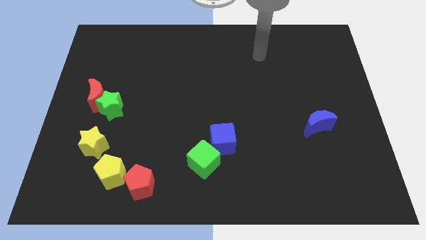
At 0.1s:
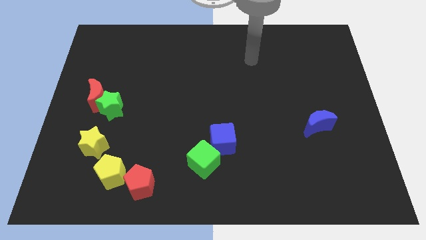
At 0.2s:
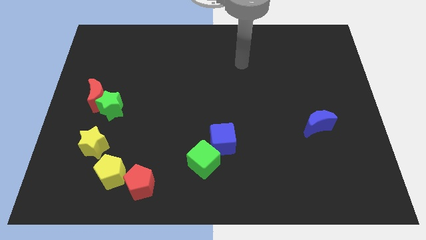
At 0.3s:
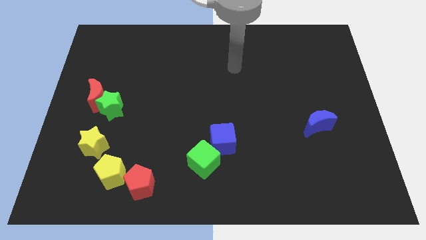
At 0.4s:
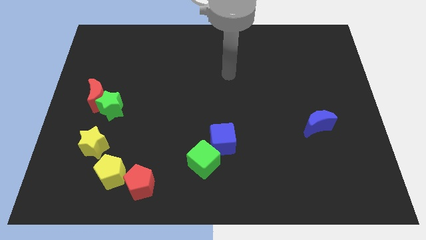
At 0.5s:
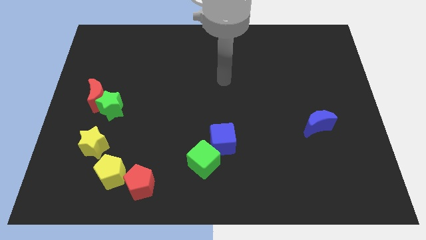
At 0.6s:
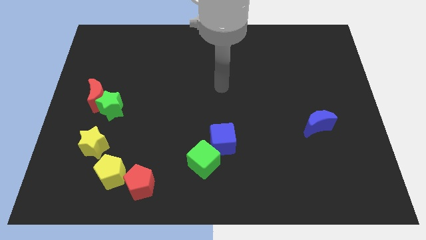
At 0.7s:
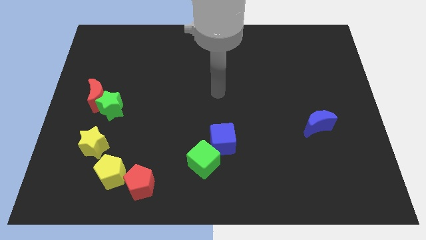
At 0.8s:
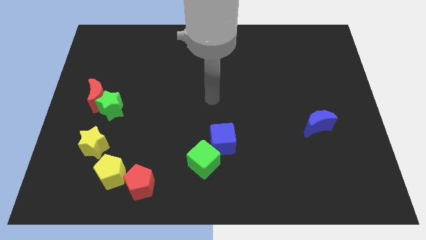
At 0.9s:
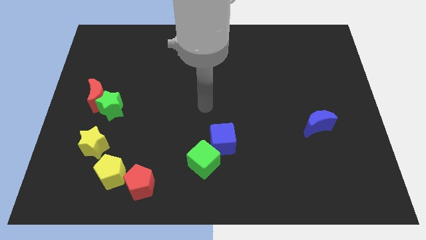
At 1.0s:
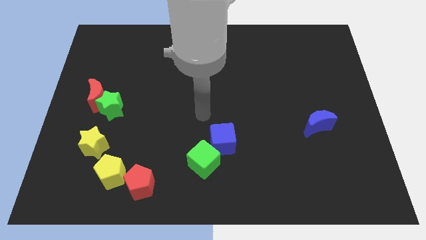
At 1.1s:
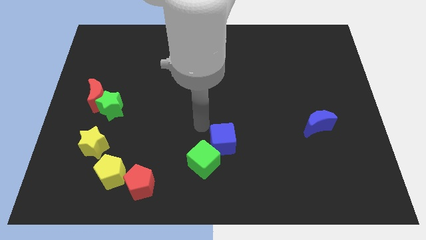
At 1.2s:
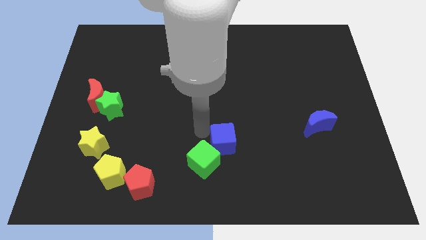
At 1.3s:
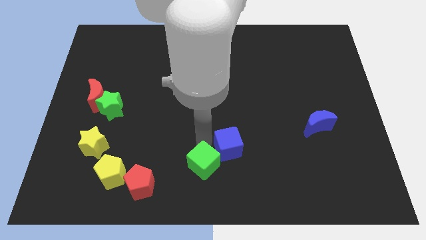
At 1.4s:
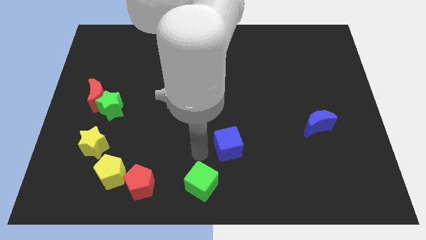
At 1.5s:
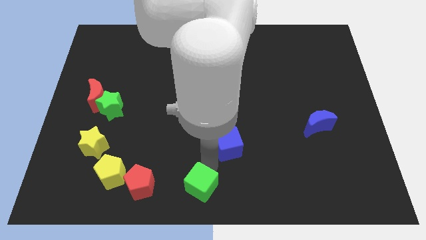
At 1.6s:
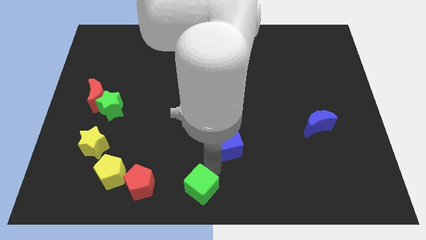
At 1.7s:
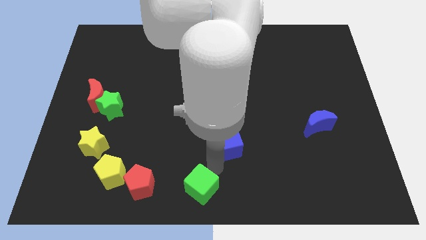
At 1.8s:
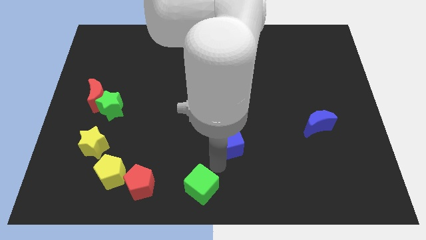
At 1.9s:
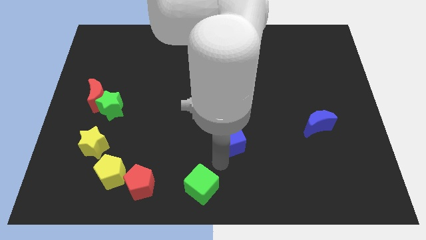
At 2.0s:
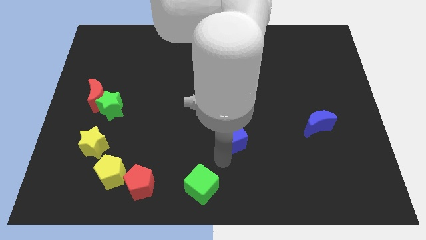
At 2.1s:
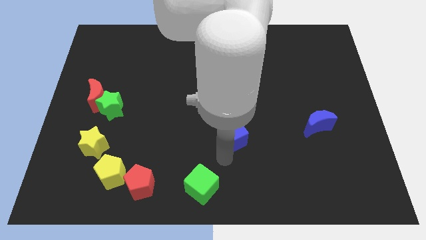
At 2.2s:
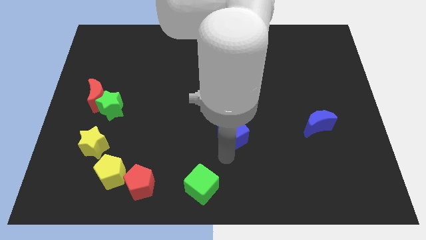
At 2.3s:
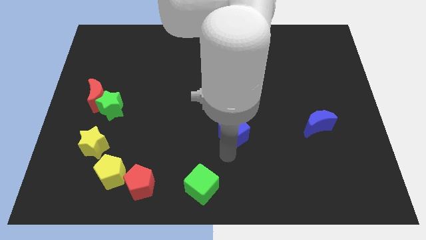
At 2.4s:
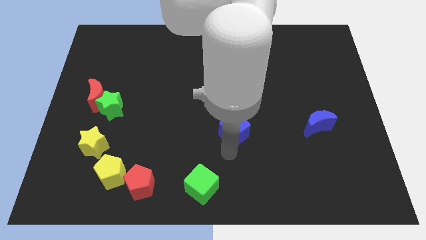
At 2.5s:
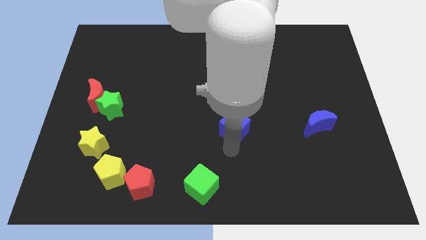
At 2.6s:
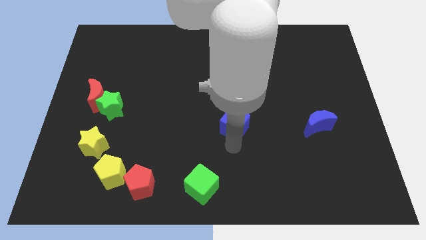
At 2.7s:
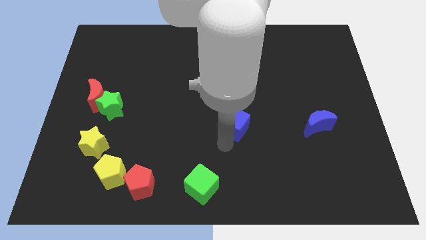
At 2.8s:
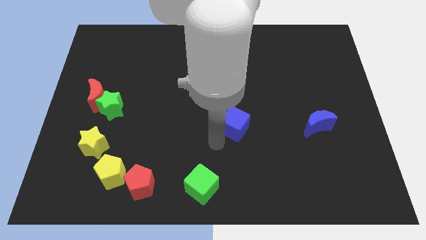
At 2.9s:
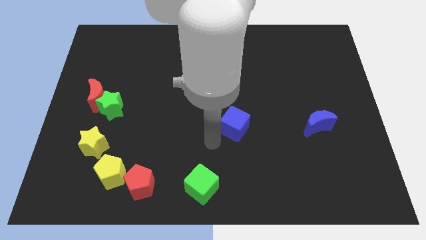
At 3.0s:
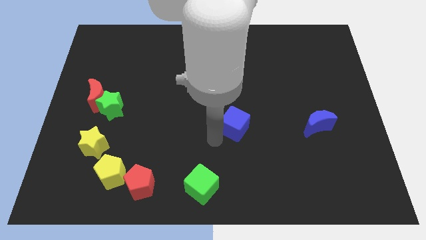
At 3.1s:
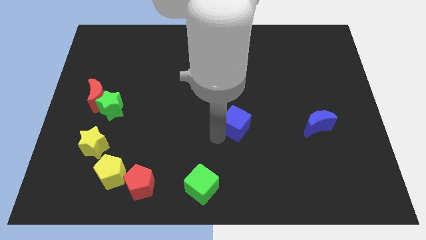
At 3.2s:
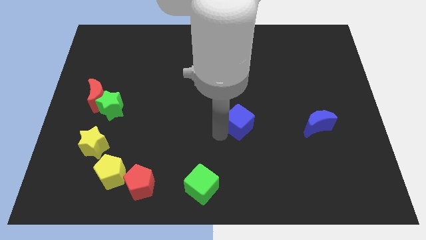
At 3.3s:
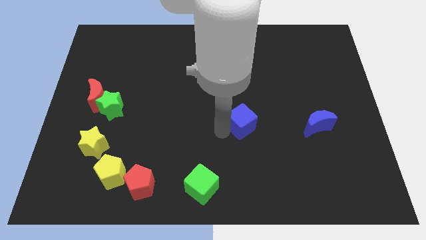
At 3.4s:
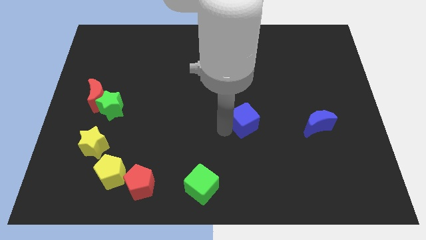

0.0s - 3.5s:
slightly move the blue cube upwards and right diagonally

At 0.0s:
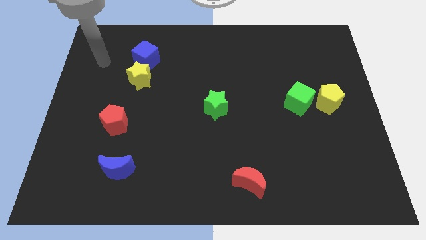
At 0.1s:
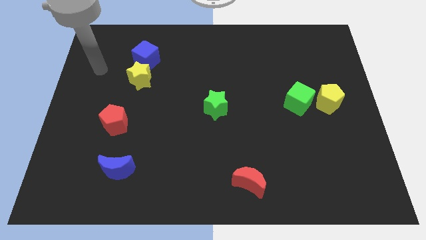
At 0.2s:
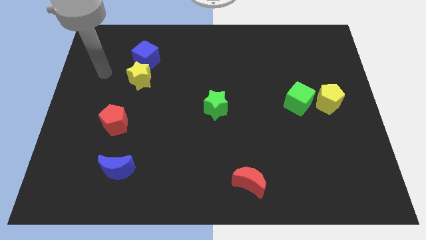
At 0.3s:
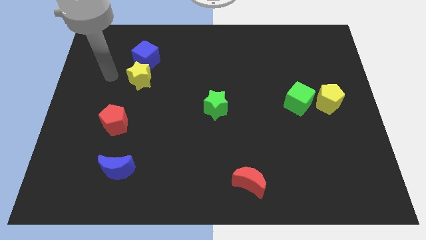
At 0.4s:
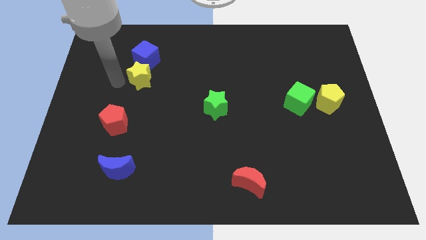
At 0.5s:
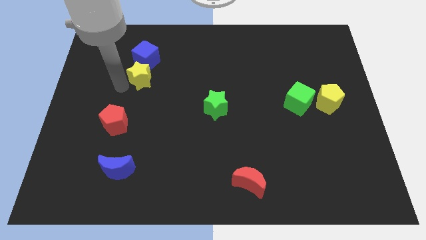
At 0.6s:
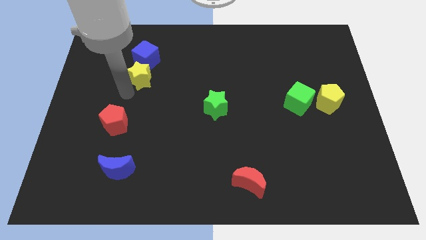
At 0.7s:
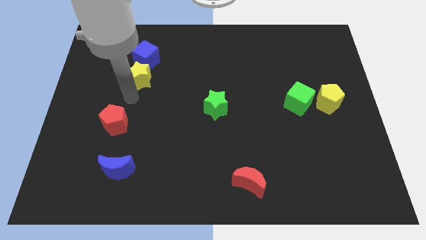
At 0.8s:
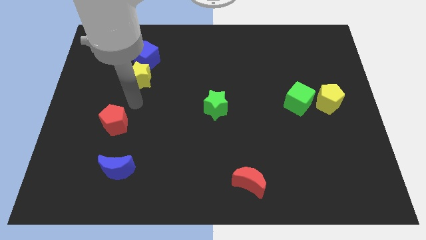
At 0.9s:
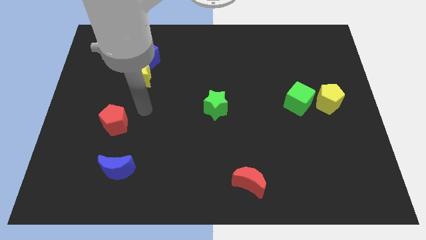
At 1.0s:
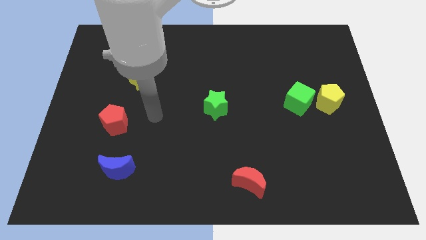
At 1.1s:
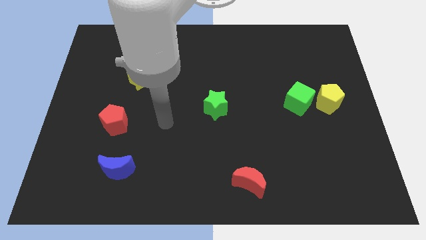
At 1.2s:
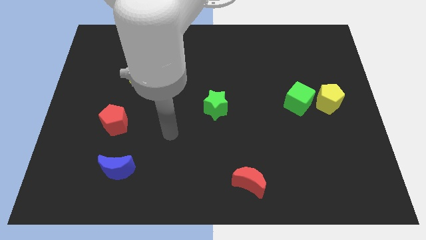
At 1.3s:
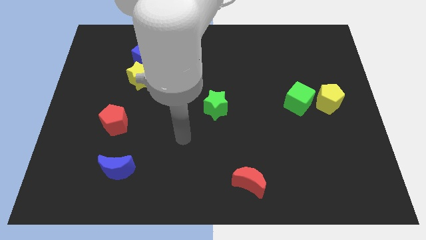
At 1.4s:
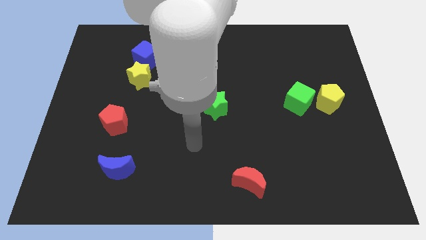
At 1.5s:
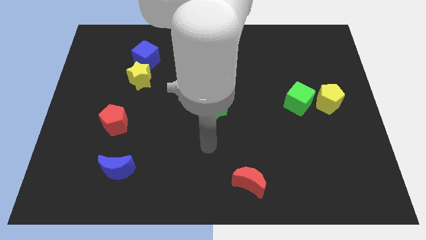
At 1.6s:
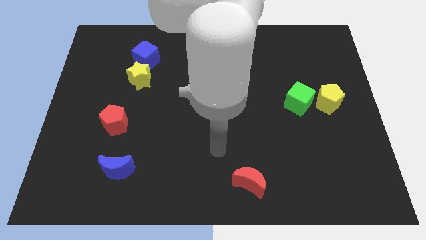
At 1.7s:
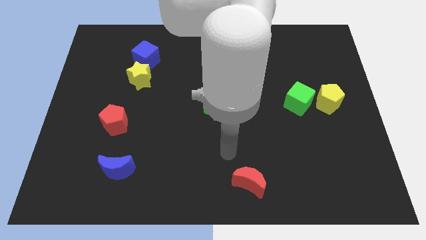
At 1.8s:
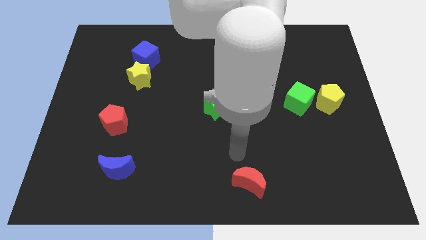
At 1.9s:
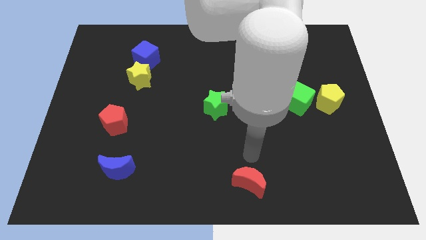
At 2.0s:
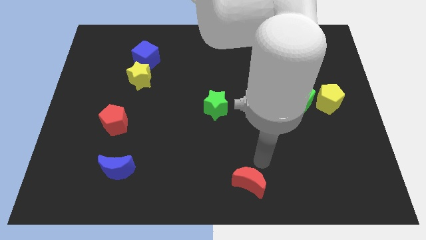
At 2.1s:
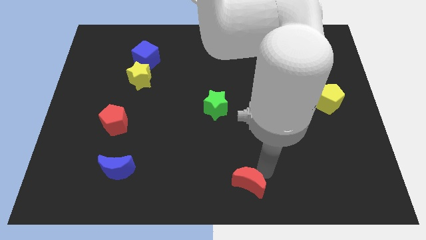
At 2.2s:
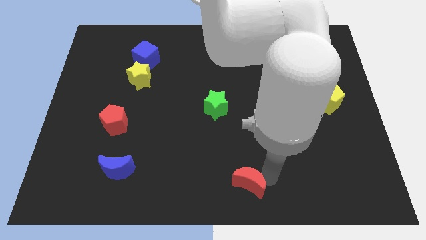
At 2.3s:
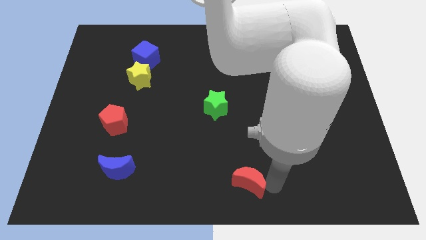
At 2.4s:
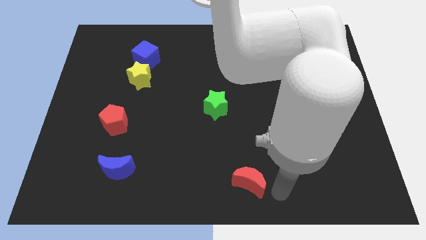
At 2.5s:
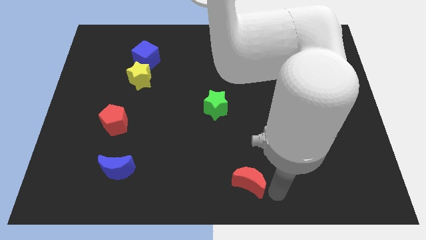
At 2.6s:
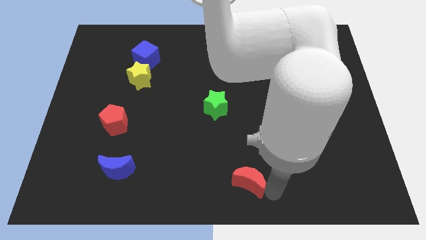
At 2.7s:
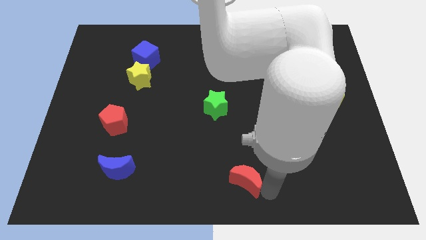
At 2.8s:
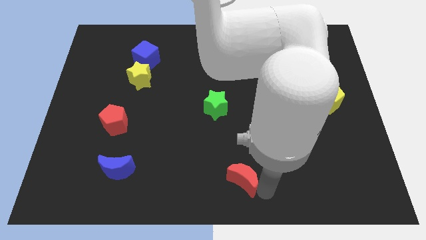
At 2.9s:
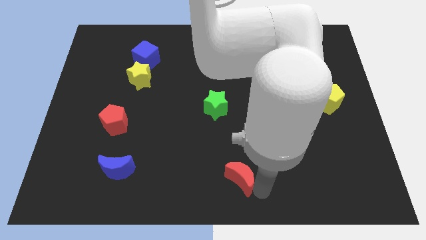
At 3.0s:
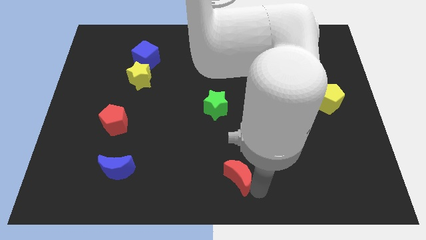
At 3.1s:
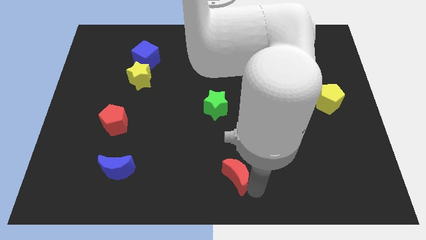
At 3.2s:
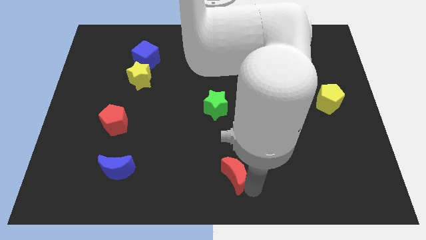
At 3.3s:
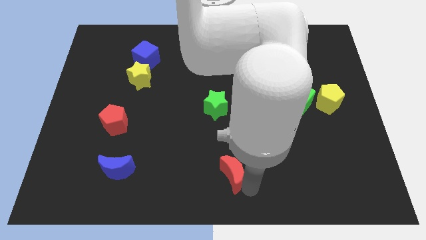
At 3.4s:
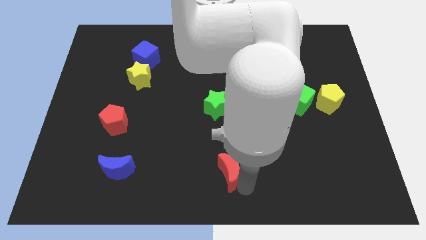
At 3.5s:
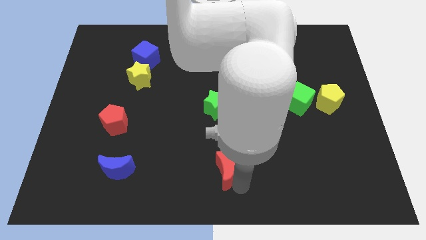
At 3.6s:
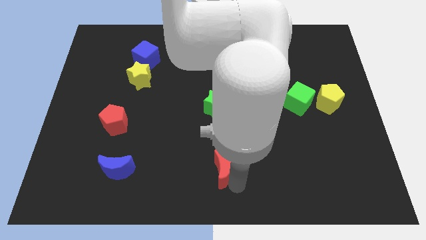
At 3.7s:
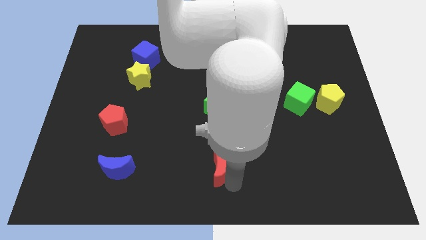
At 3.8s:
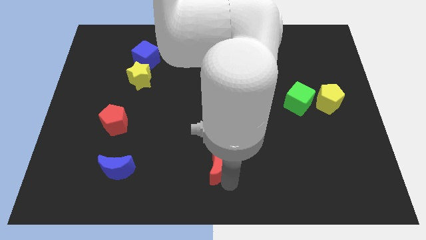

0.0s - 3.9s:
slide the red moon a little bit upwards and to the left diagonally

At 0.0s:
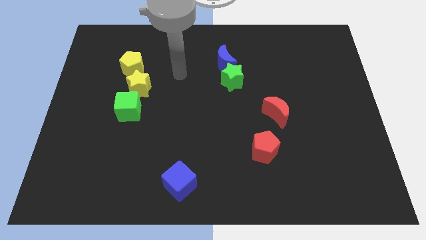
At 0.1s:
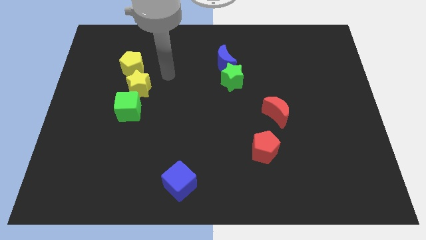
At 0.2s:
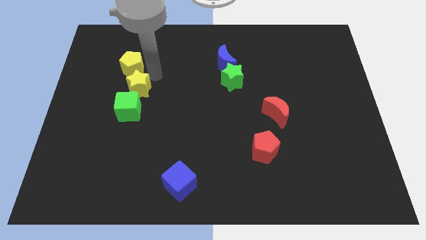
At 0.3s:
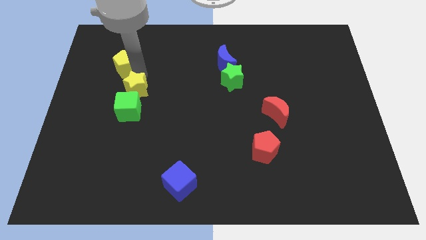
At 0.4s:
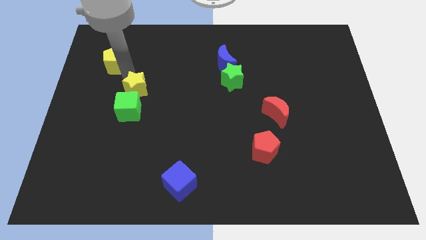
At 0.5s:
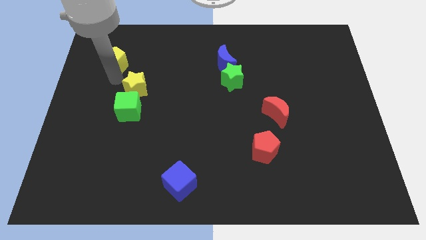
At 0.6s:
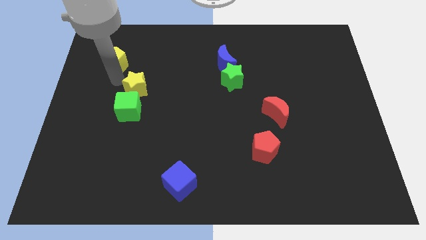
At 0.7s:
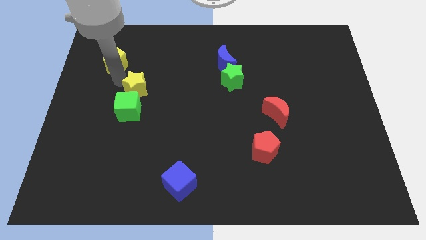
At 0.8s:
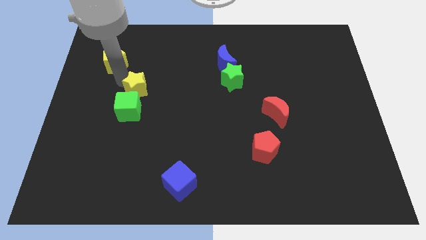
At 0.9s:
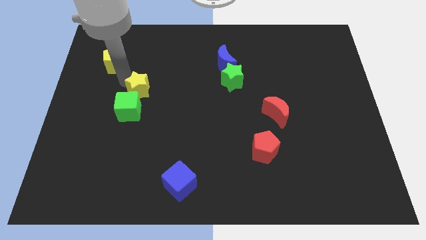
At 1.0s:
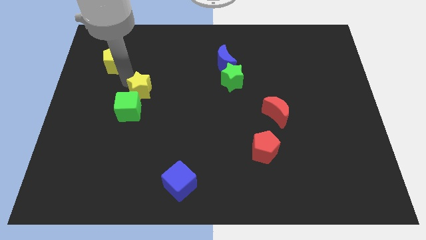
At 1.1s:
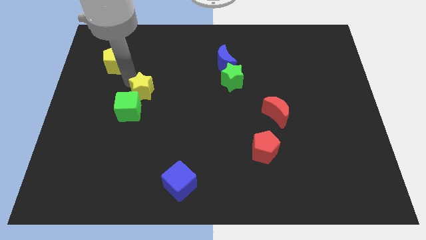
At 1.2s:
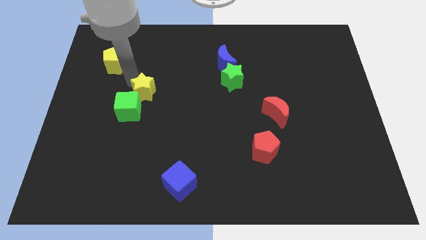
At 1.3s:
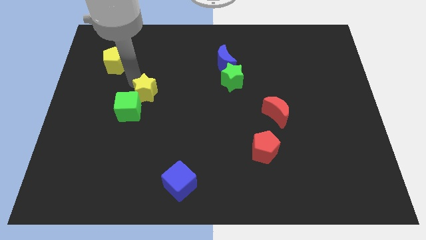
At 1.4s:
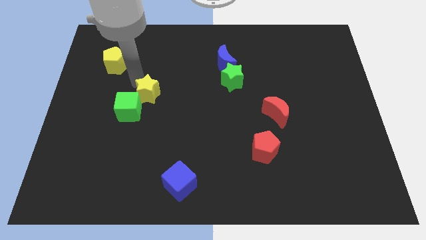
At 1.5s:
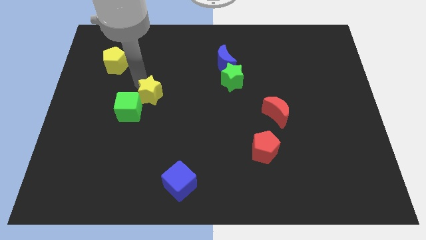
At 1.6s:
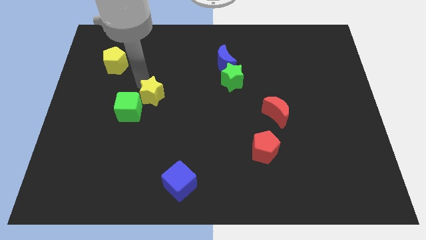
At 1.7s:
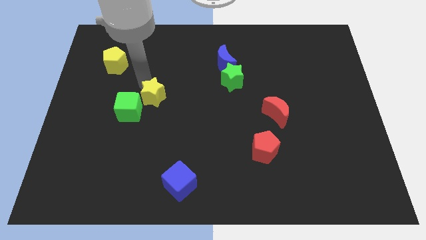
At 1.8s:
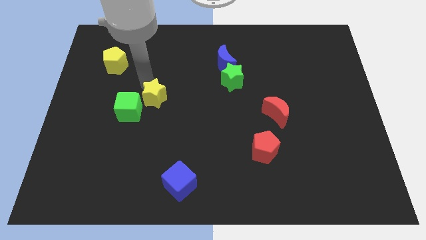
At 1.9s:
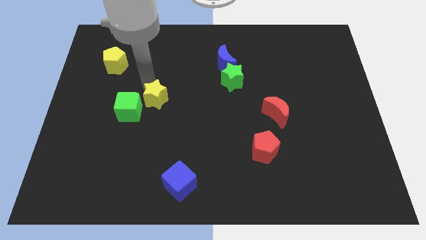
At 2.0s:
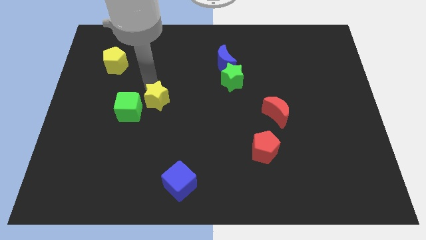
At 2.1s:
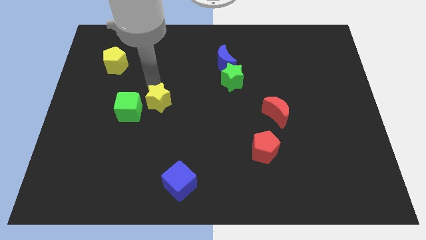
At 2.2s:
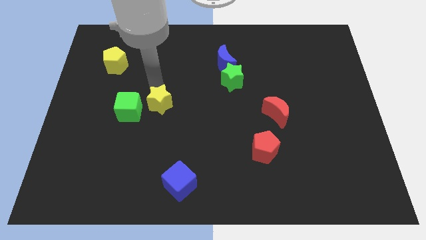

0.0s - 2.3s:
slide the yellow star diagonally down and right a little bit
